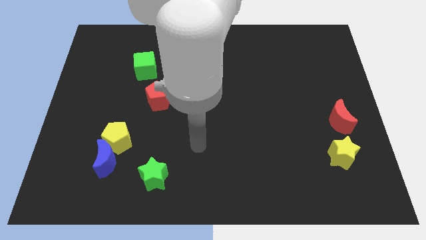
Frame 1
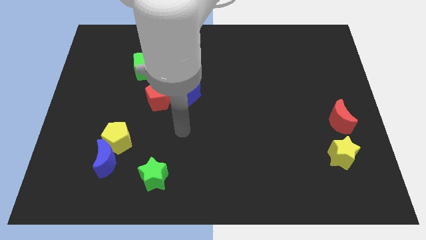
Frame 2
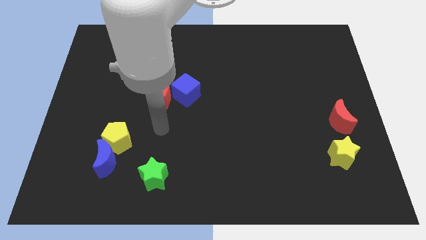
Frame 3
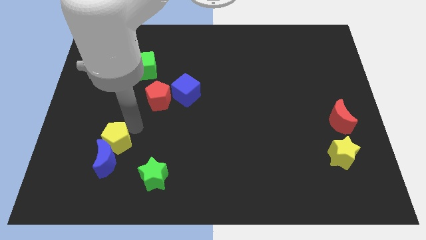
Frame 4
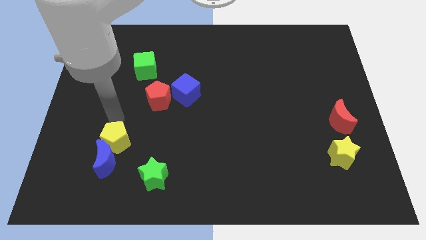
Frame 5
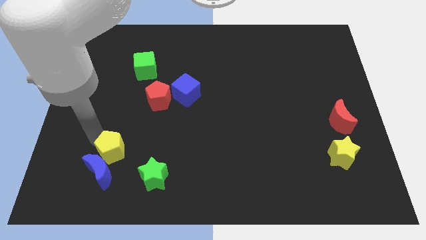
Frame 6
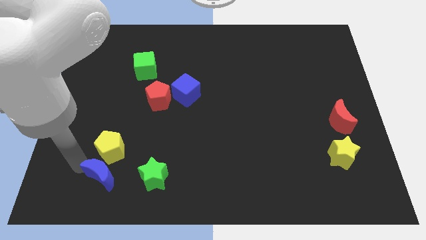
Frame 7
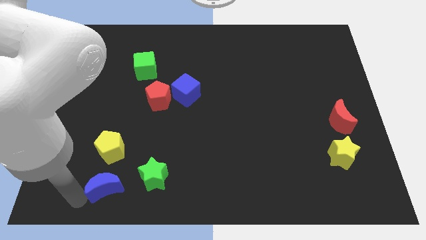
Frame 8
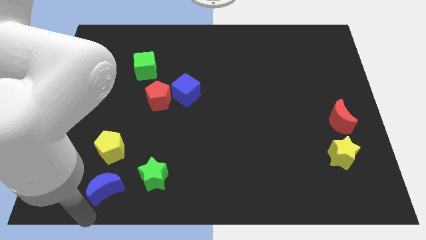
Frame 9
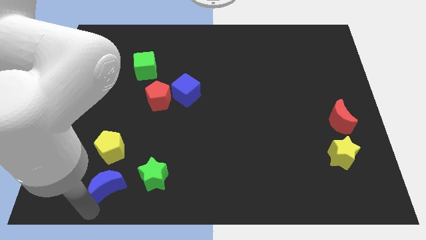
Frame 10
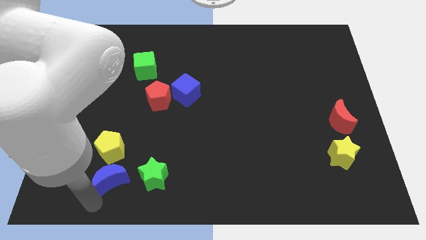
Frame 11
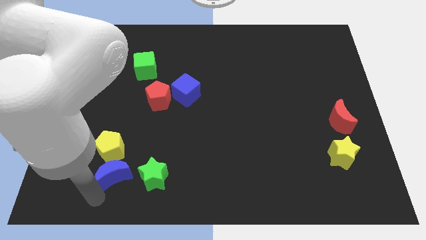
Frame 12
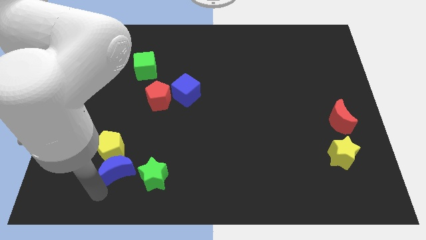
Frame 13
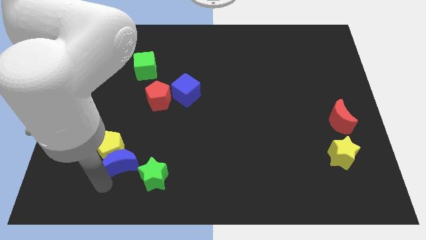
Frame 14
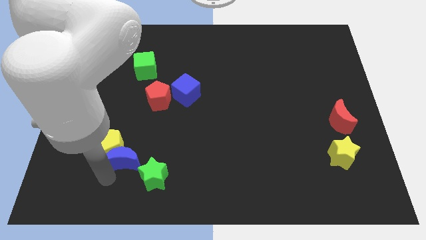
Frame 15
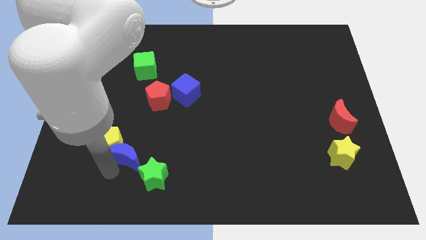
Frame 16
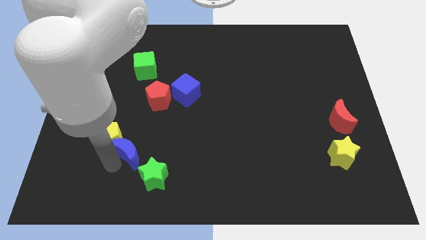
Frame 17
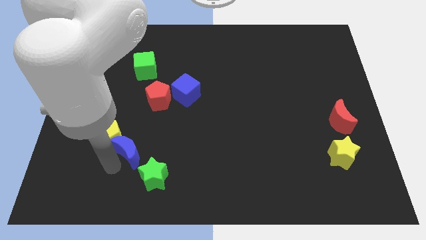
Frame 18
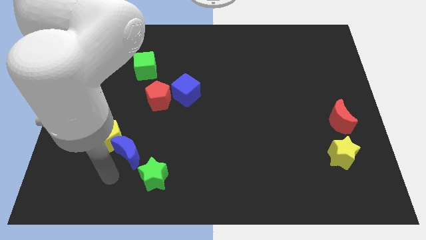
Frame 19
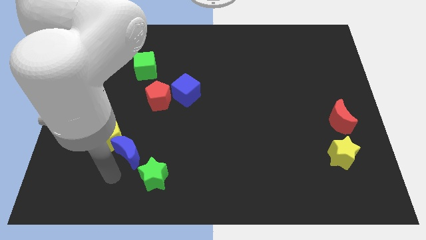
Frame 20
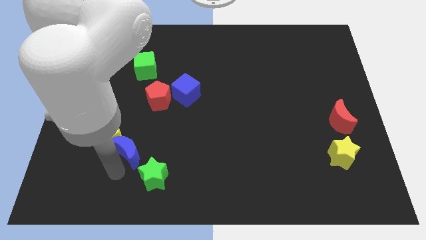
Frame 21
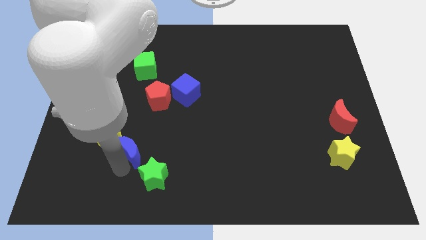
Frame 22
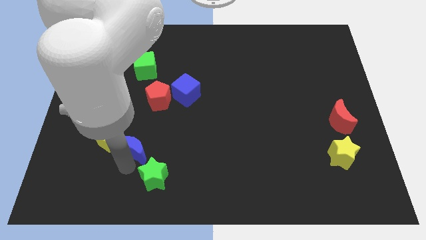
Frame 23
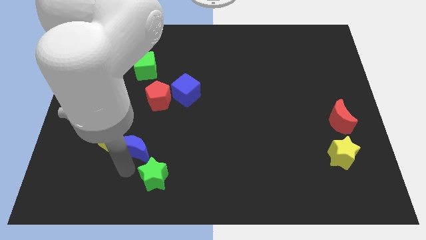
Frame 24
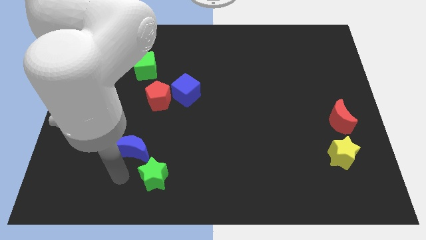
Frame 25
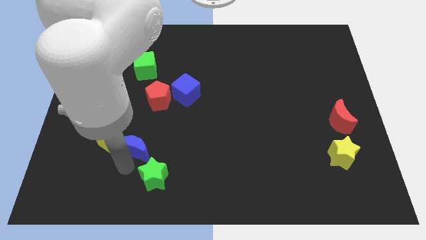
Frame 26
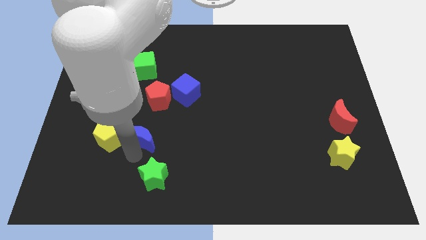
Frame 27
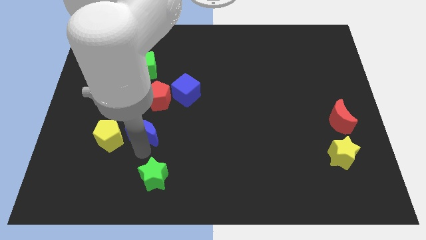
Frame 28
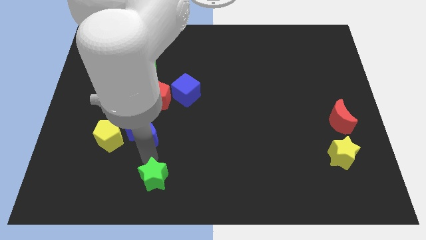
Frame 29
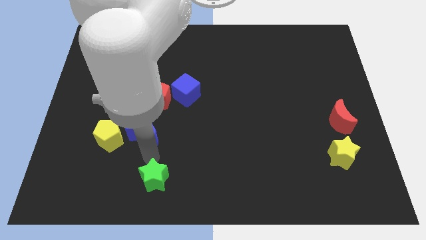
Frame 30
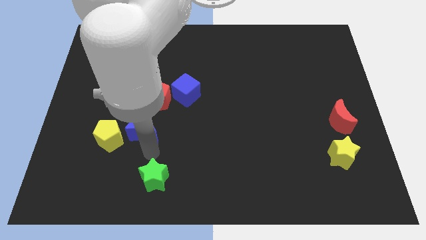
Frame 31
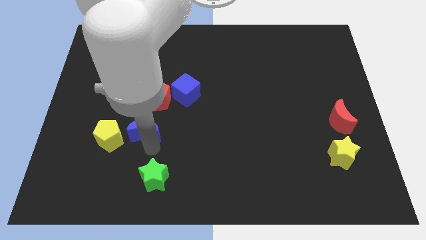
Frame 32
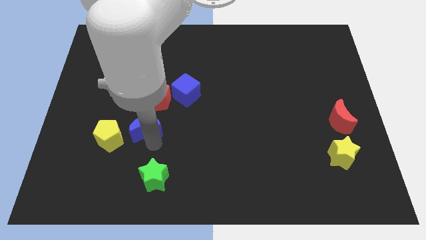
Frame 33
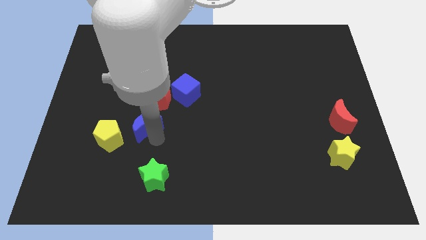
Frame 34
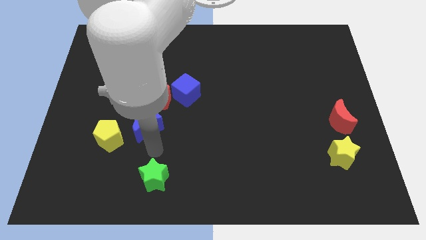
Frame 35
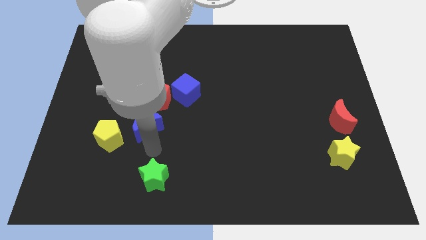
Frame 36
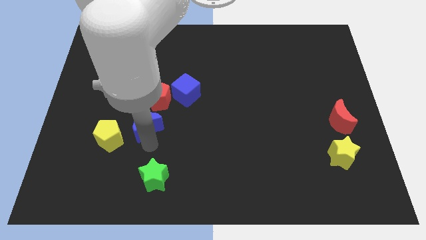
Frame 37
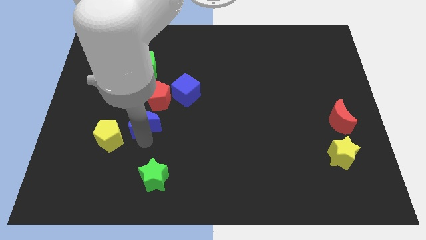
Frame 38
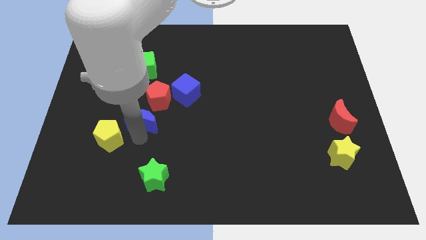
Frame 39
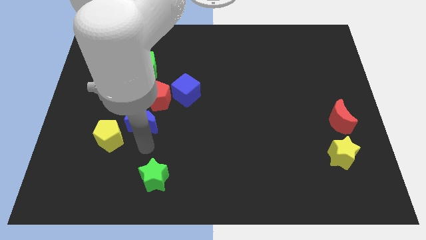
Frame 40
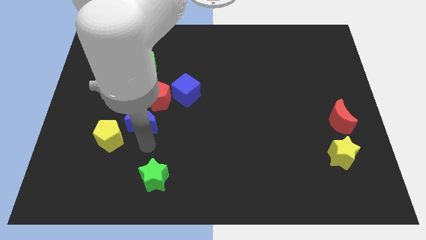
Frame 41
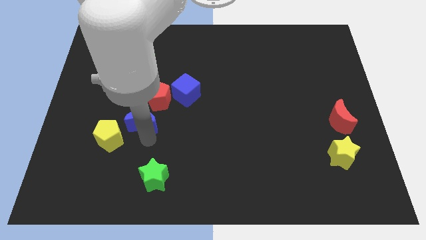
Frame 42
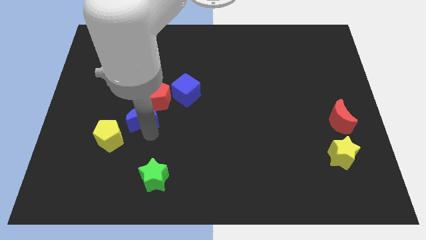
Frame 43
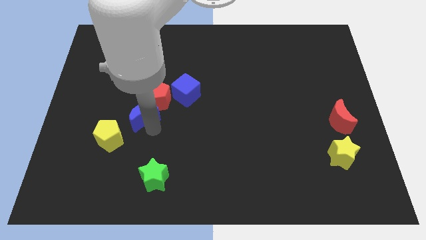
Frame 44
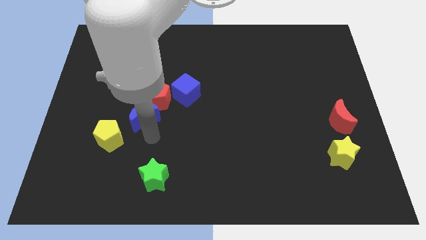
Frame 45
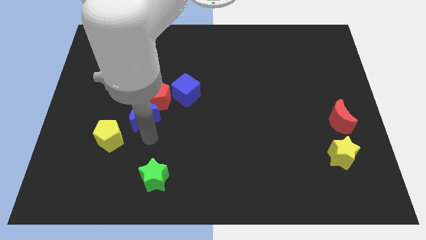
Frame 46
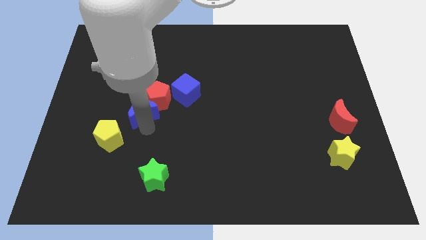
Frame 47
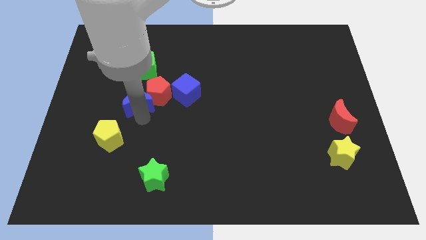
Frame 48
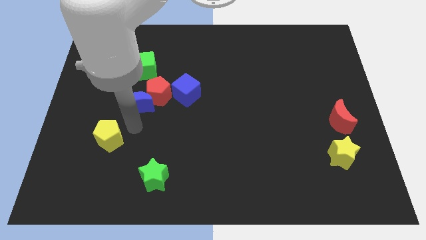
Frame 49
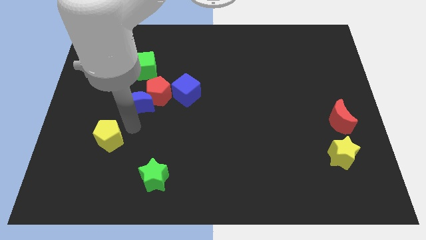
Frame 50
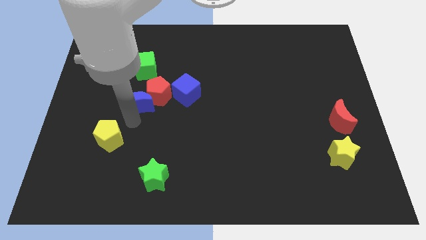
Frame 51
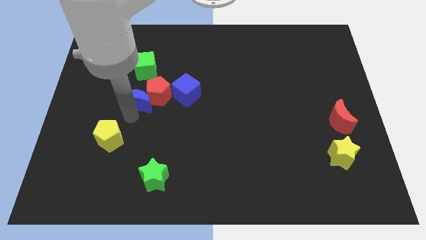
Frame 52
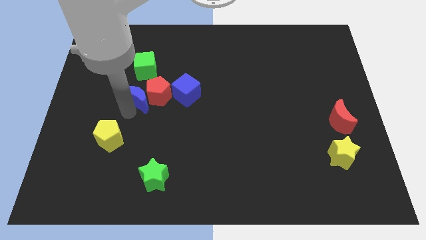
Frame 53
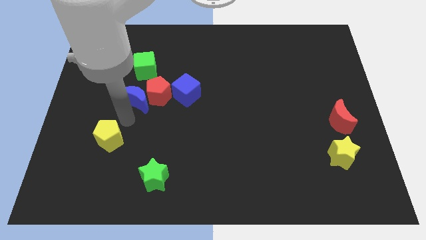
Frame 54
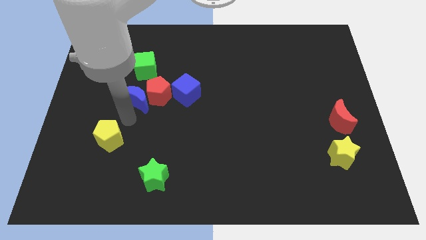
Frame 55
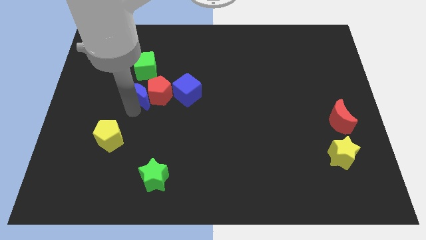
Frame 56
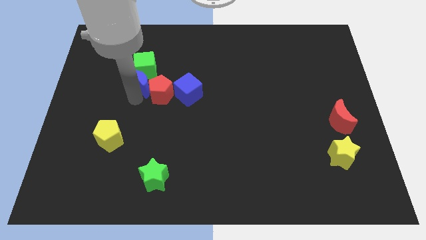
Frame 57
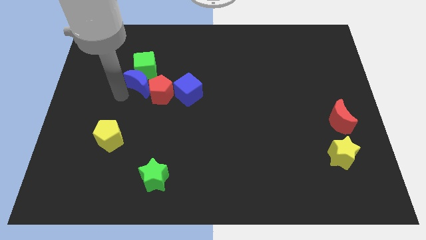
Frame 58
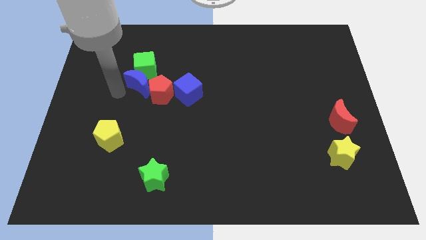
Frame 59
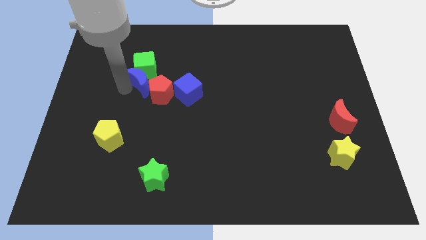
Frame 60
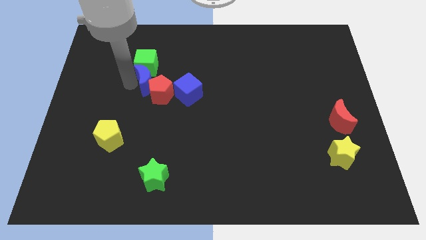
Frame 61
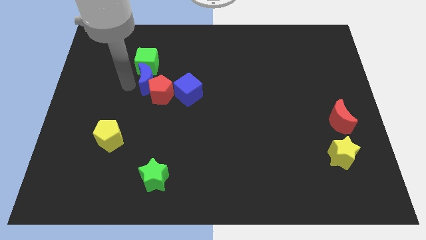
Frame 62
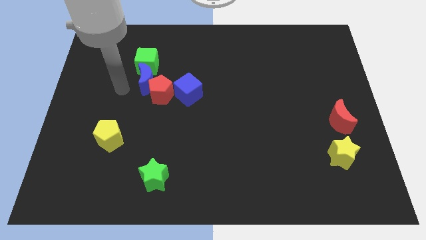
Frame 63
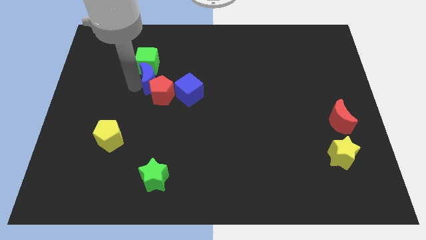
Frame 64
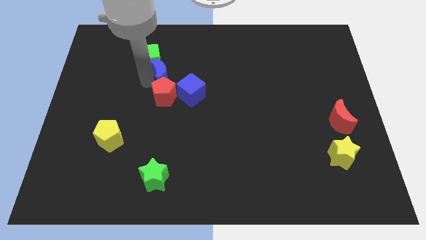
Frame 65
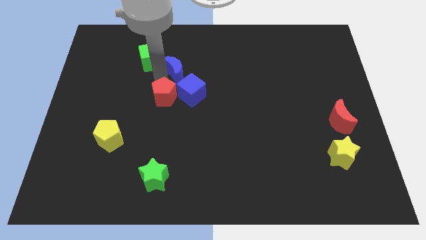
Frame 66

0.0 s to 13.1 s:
move the blue moon above the blue cube
